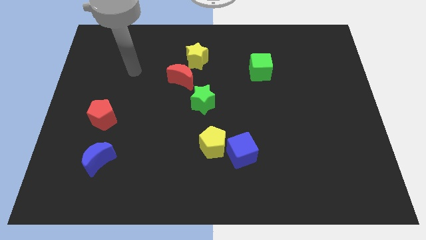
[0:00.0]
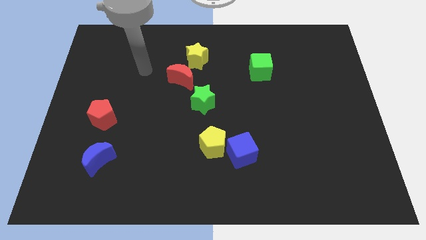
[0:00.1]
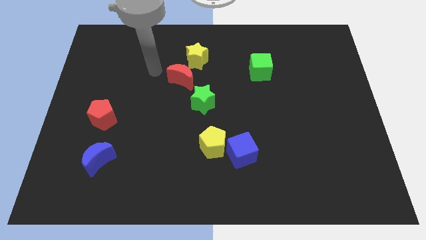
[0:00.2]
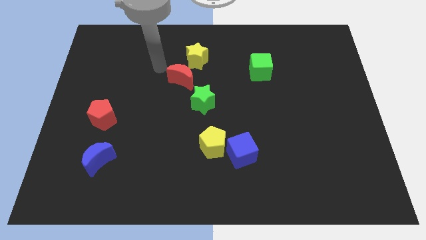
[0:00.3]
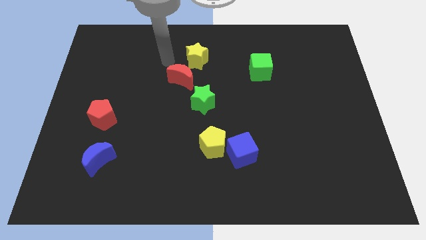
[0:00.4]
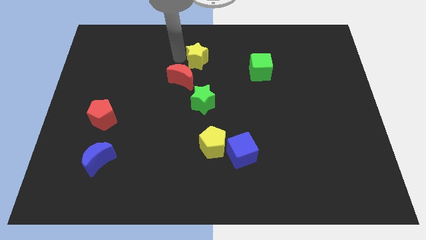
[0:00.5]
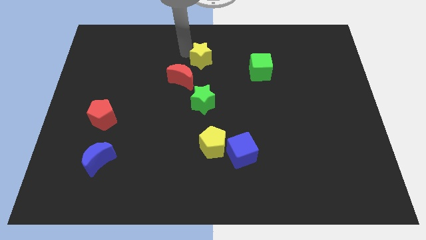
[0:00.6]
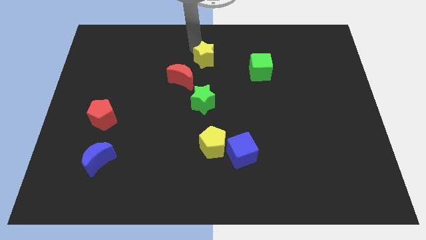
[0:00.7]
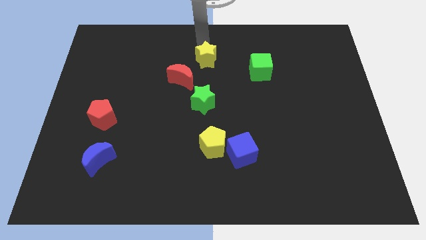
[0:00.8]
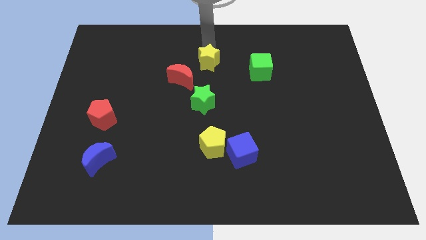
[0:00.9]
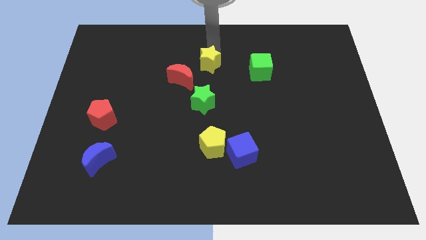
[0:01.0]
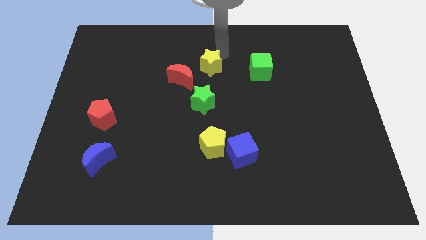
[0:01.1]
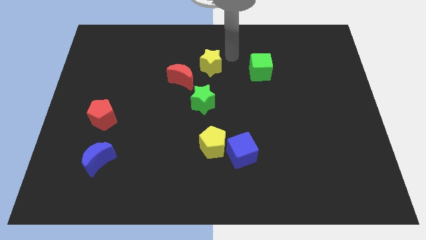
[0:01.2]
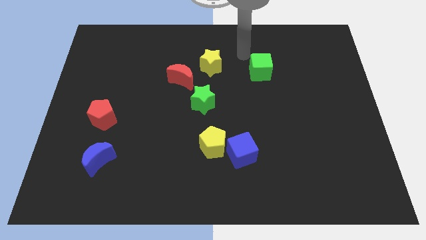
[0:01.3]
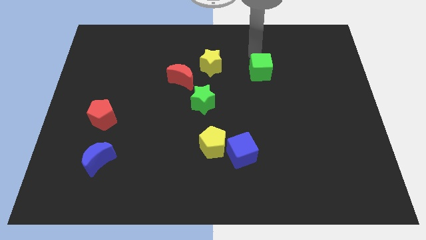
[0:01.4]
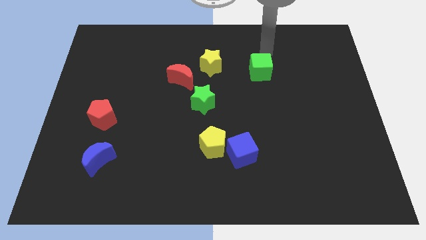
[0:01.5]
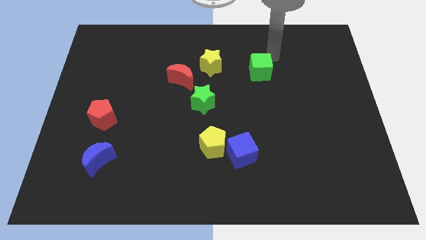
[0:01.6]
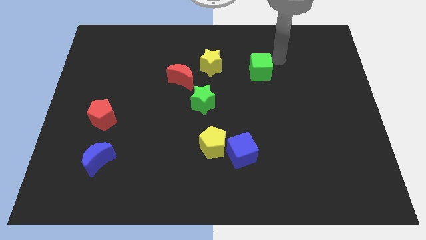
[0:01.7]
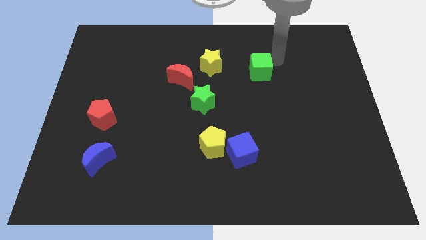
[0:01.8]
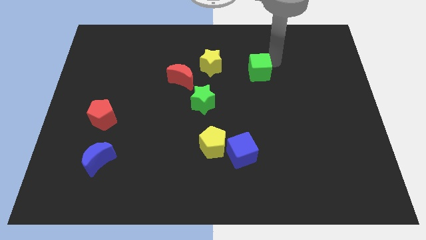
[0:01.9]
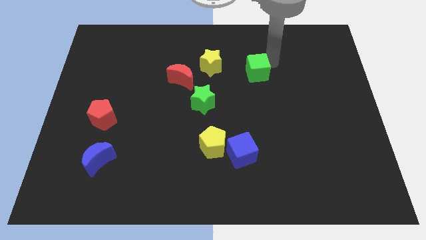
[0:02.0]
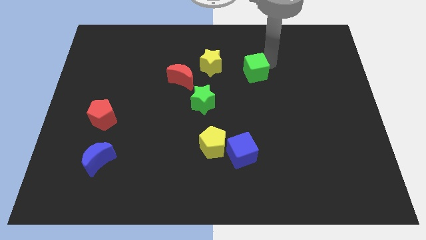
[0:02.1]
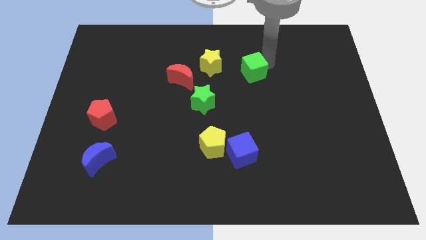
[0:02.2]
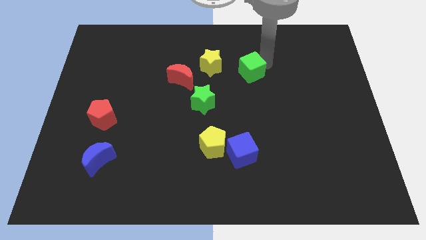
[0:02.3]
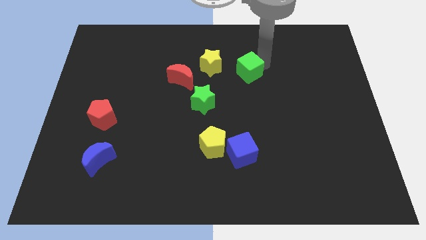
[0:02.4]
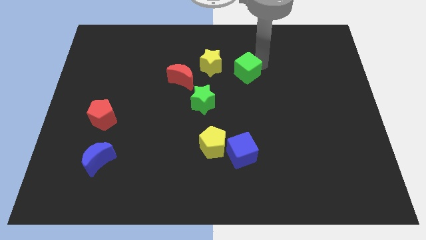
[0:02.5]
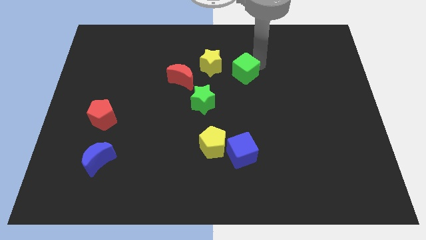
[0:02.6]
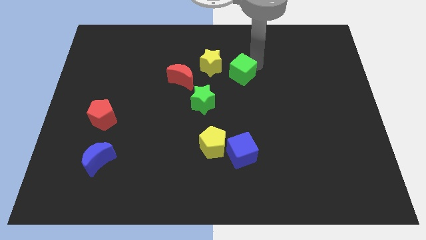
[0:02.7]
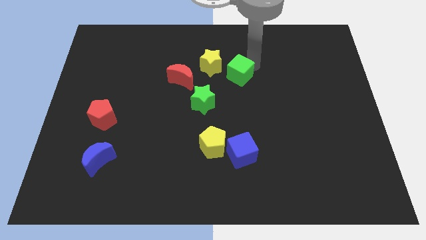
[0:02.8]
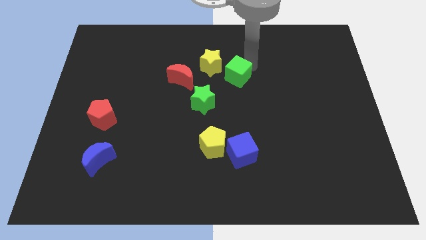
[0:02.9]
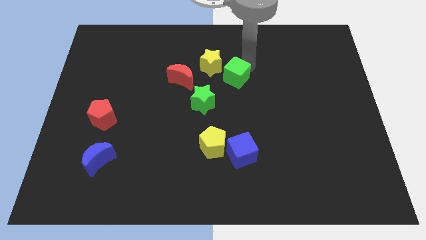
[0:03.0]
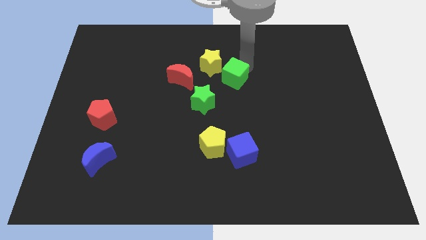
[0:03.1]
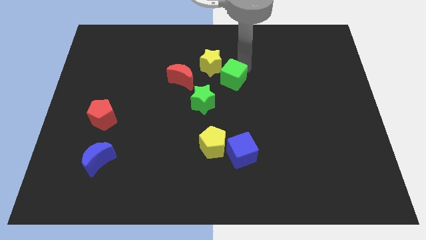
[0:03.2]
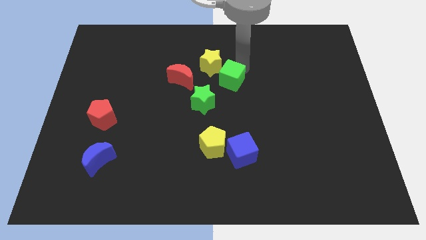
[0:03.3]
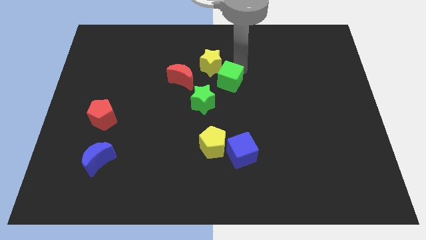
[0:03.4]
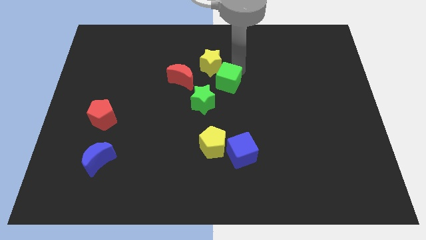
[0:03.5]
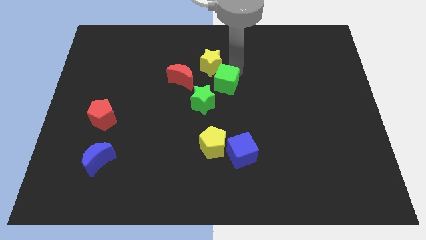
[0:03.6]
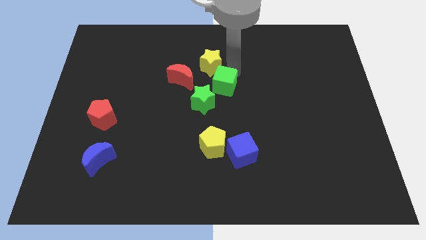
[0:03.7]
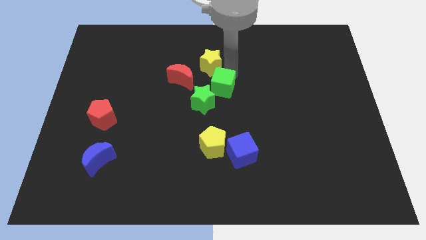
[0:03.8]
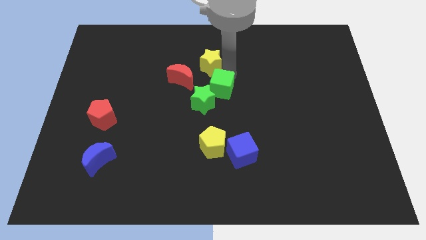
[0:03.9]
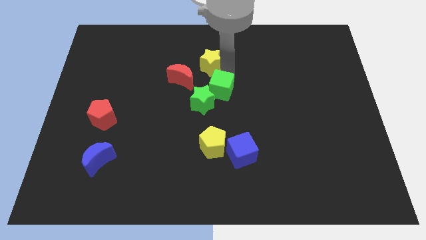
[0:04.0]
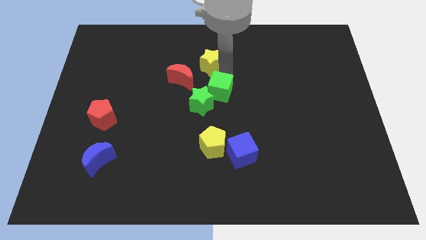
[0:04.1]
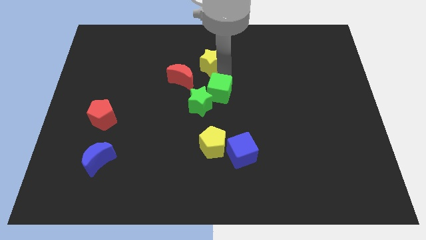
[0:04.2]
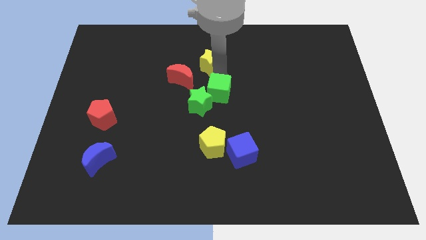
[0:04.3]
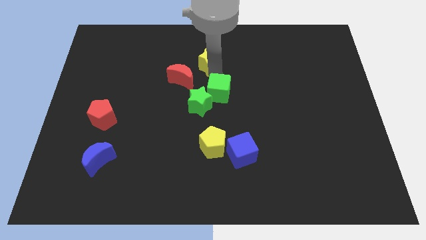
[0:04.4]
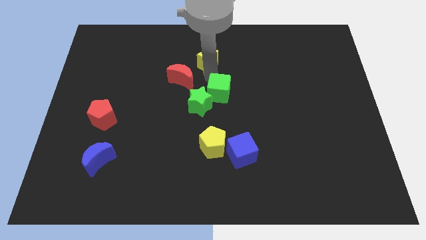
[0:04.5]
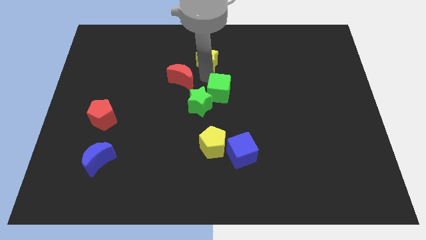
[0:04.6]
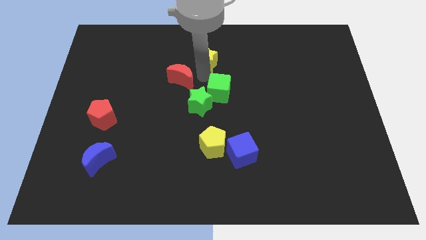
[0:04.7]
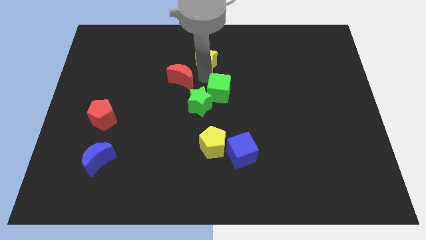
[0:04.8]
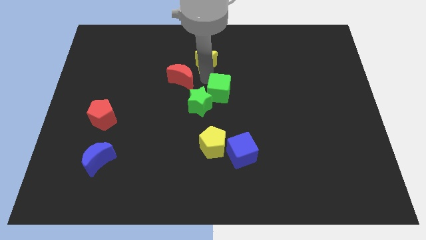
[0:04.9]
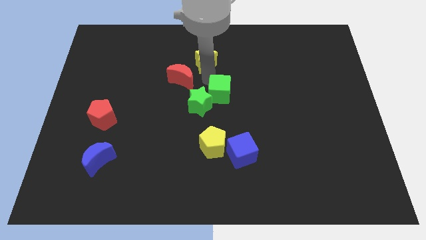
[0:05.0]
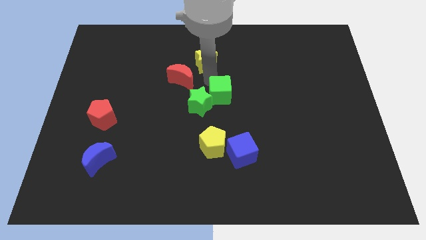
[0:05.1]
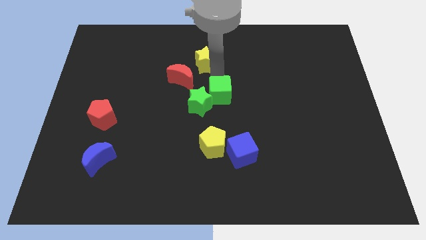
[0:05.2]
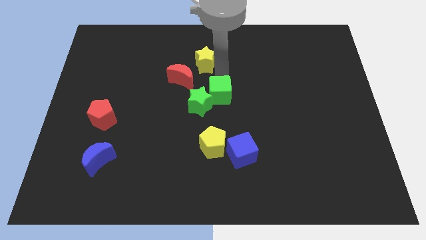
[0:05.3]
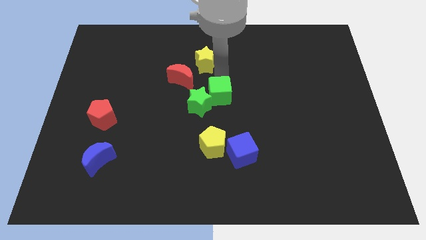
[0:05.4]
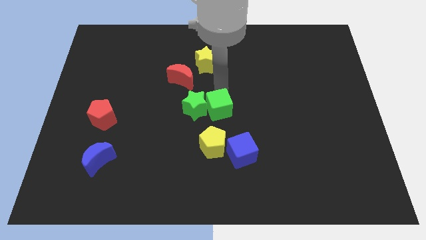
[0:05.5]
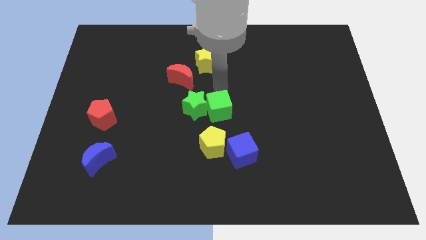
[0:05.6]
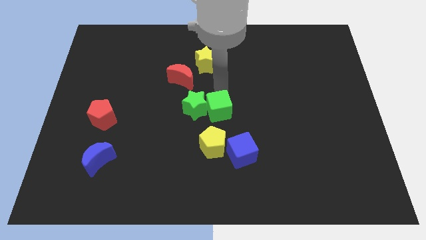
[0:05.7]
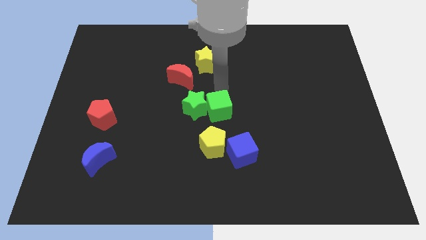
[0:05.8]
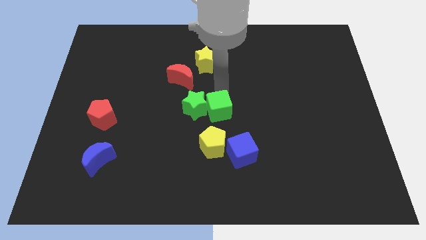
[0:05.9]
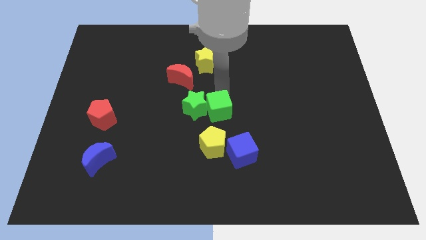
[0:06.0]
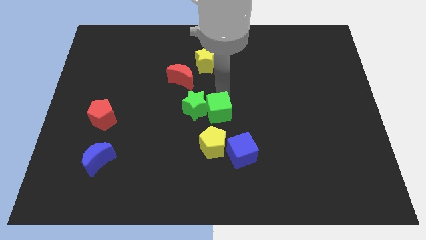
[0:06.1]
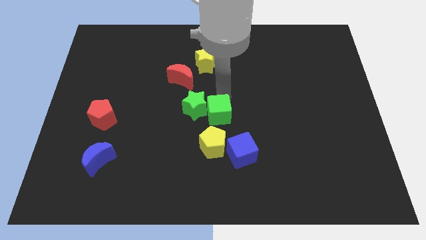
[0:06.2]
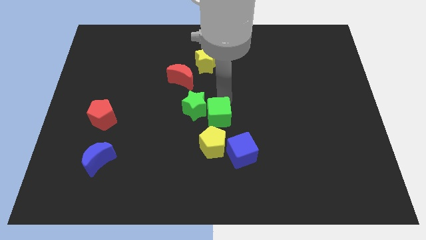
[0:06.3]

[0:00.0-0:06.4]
push the green cube diagonally up and to the left of the blue cube

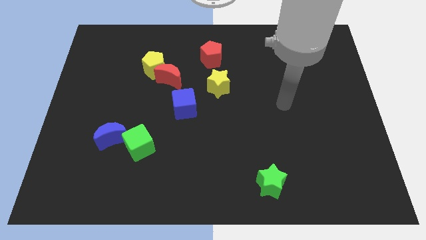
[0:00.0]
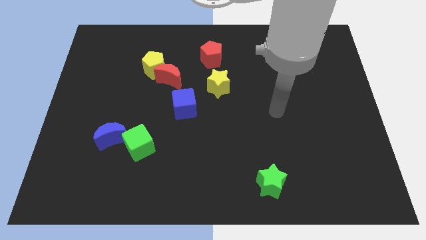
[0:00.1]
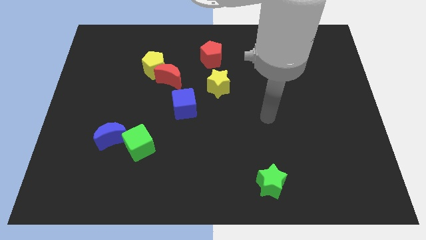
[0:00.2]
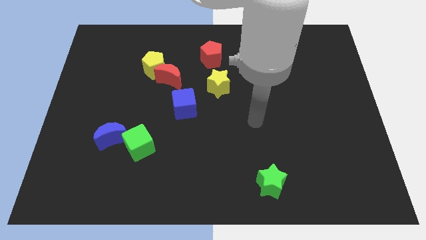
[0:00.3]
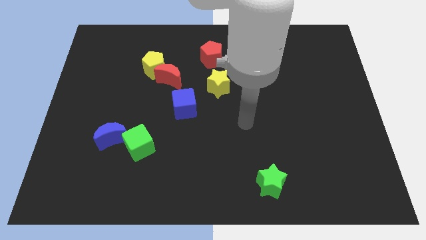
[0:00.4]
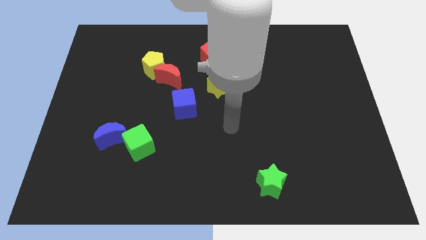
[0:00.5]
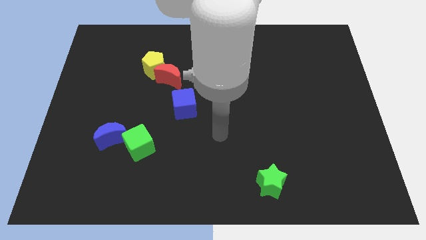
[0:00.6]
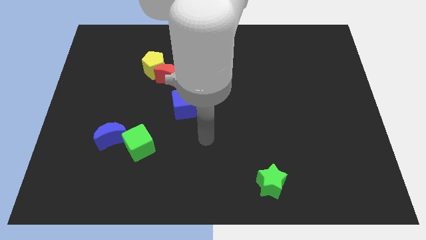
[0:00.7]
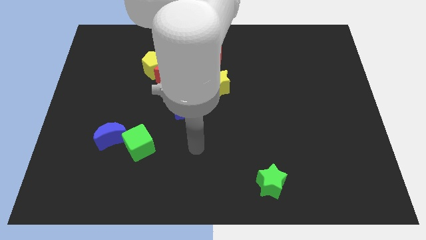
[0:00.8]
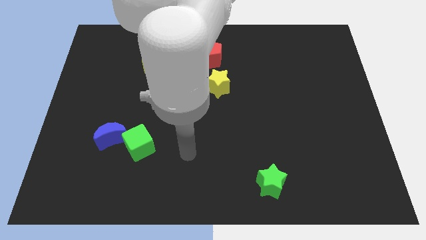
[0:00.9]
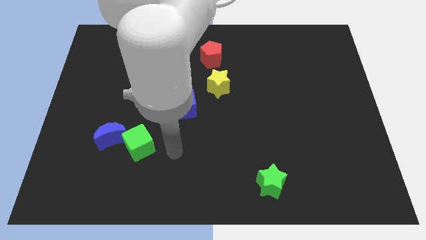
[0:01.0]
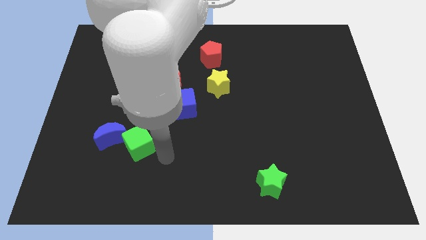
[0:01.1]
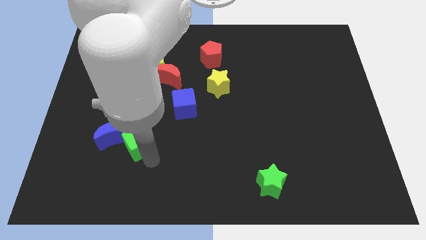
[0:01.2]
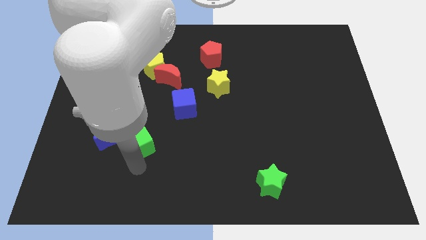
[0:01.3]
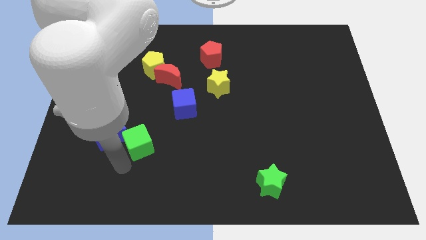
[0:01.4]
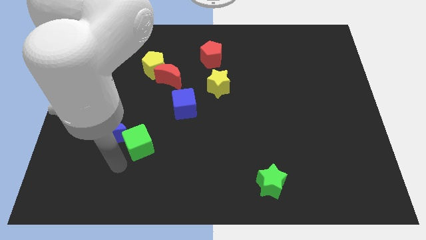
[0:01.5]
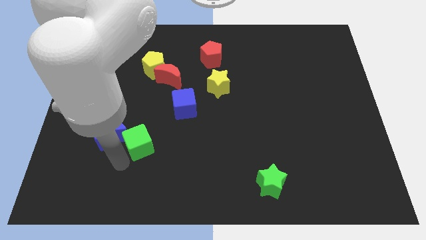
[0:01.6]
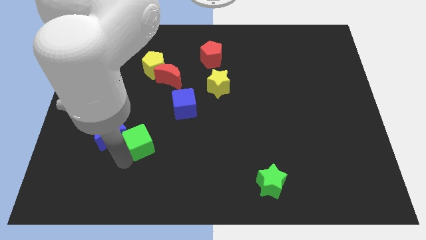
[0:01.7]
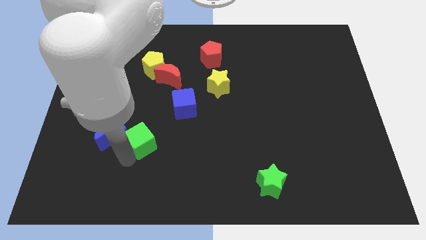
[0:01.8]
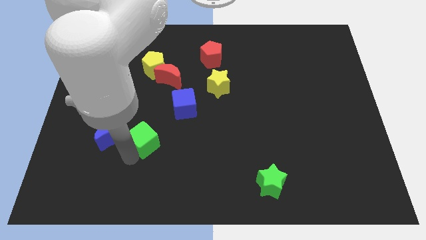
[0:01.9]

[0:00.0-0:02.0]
slide the green cube diagonally down and to the left of the blue cube
